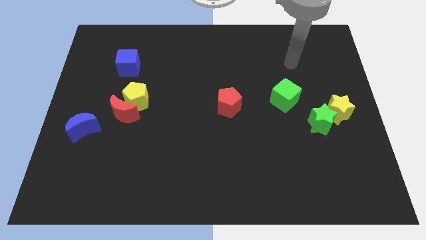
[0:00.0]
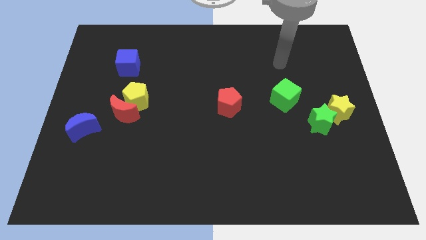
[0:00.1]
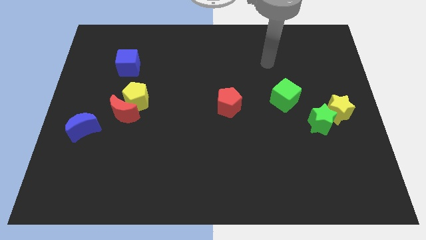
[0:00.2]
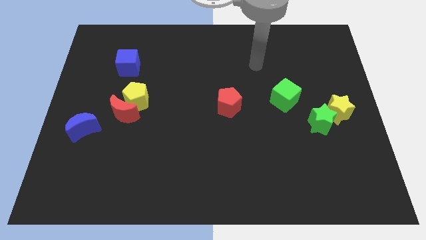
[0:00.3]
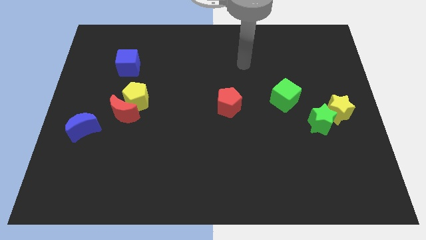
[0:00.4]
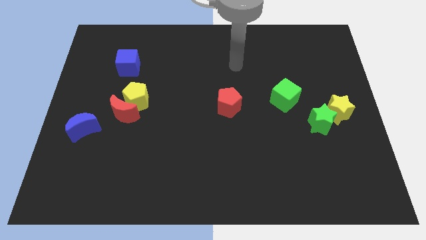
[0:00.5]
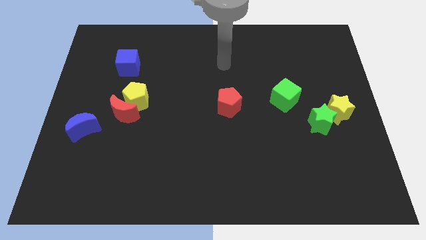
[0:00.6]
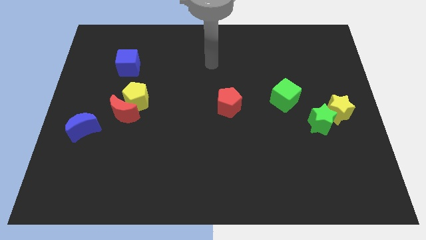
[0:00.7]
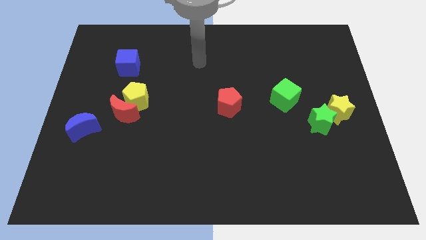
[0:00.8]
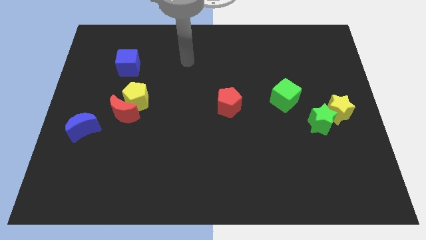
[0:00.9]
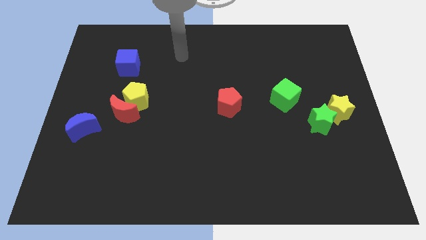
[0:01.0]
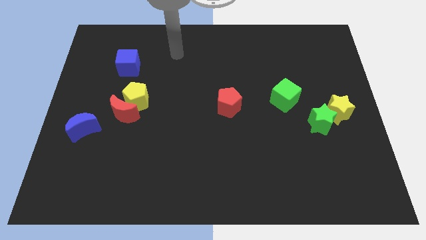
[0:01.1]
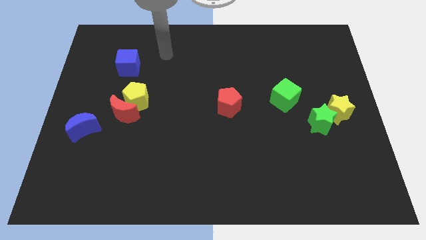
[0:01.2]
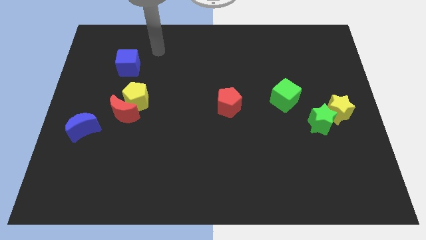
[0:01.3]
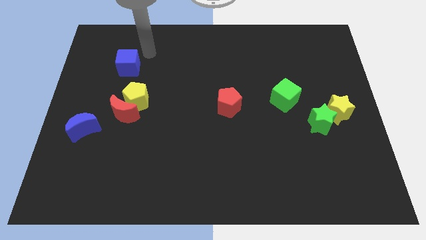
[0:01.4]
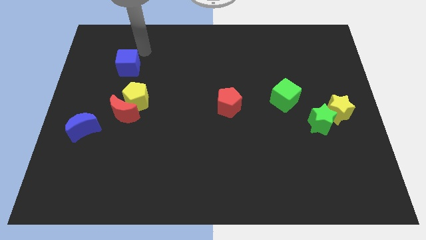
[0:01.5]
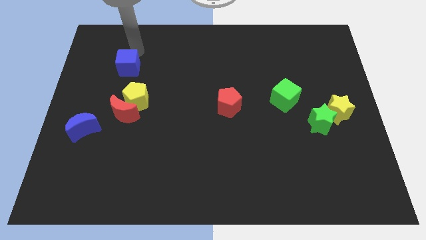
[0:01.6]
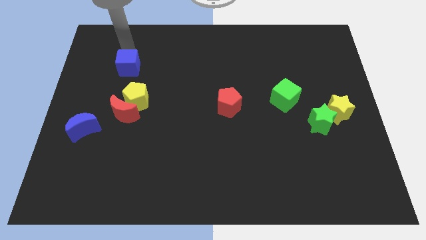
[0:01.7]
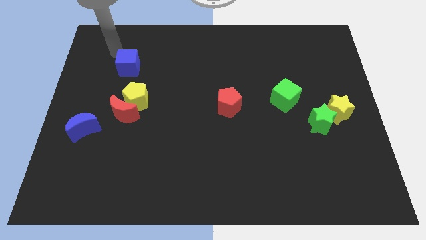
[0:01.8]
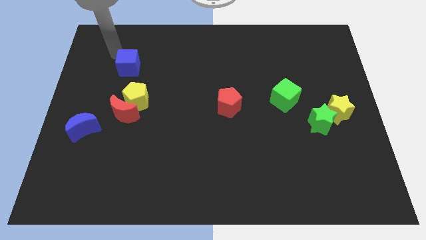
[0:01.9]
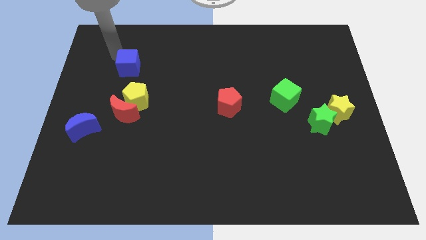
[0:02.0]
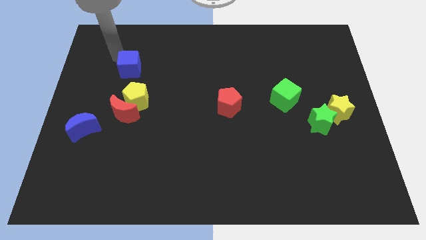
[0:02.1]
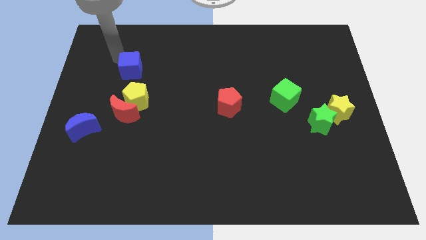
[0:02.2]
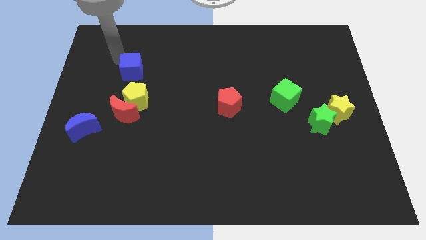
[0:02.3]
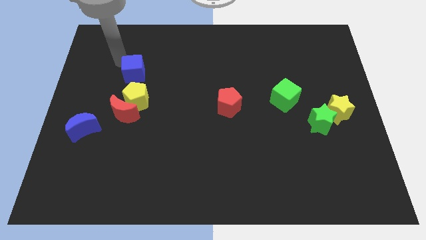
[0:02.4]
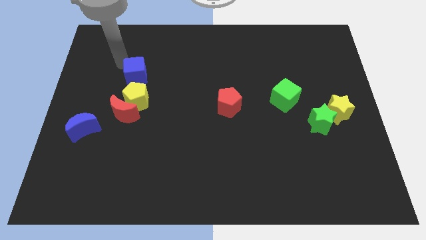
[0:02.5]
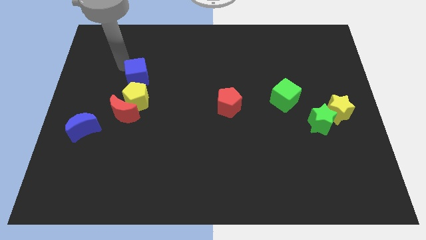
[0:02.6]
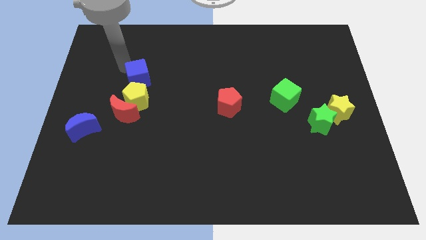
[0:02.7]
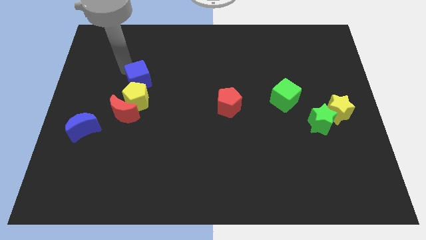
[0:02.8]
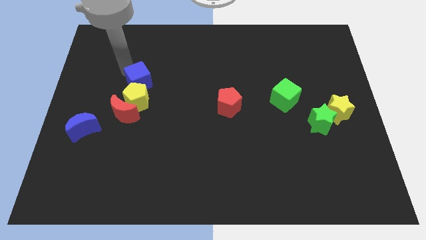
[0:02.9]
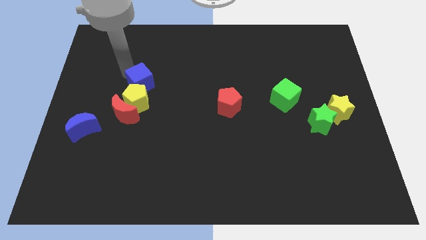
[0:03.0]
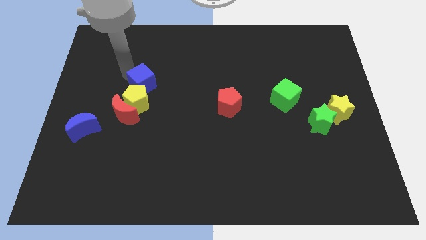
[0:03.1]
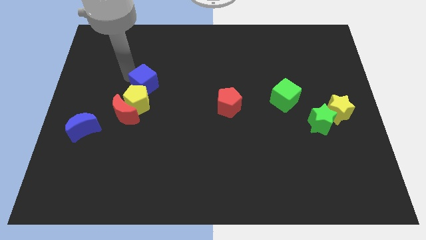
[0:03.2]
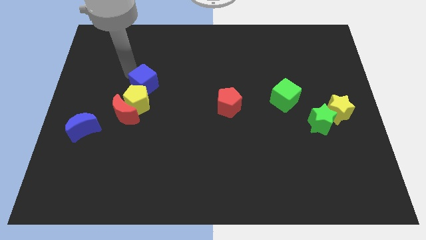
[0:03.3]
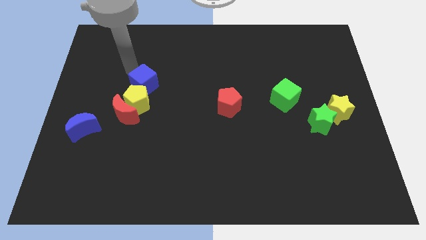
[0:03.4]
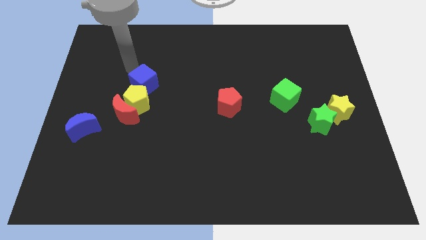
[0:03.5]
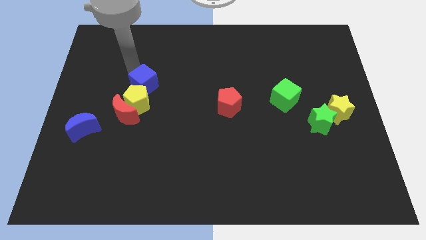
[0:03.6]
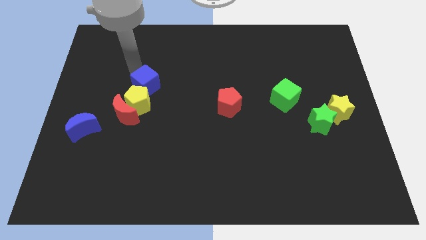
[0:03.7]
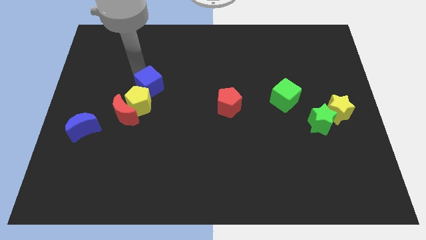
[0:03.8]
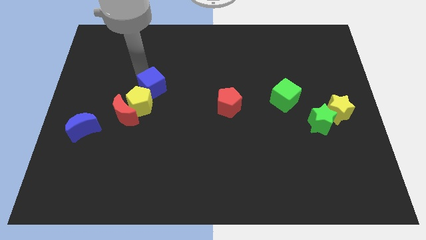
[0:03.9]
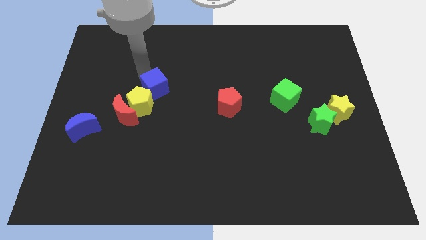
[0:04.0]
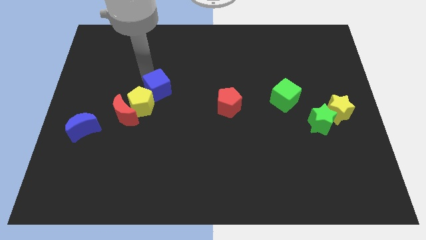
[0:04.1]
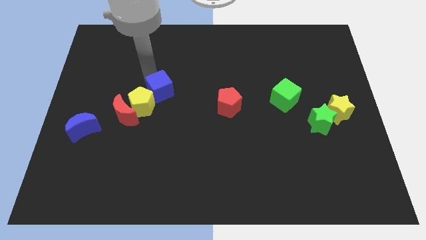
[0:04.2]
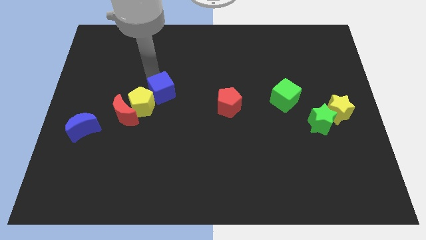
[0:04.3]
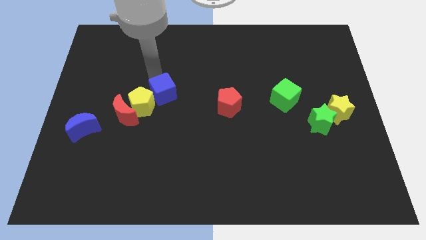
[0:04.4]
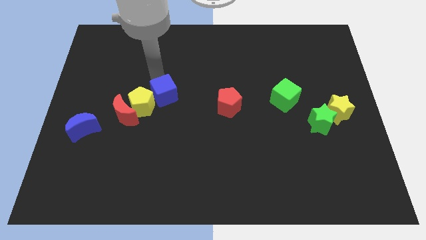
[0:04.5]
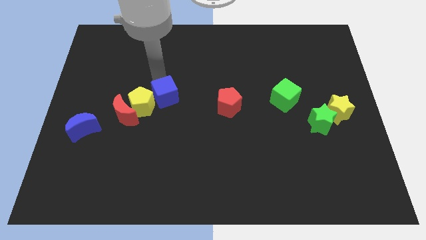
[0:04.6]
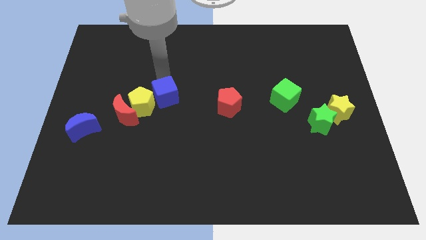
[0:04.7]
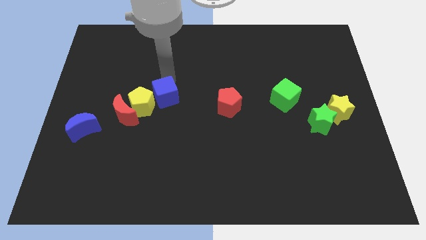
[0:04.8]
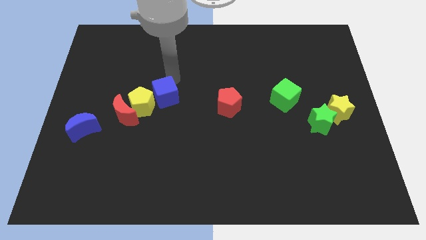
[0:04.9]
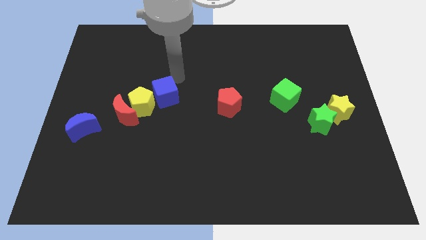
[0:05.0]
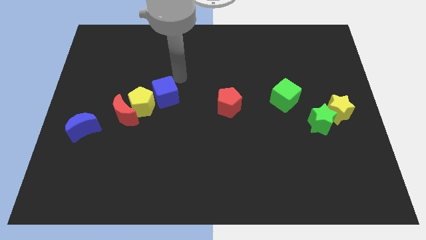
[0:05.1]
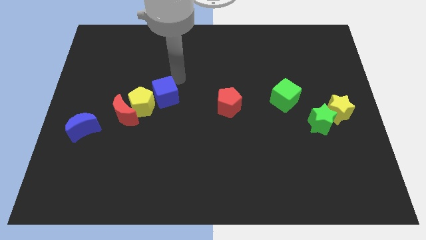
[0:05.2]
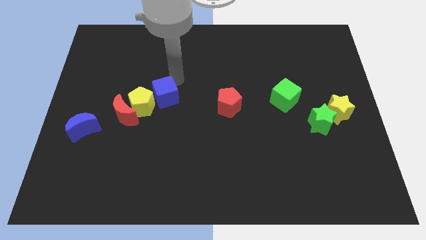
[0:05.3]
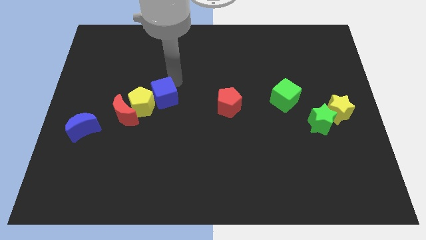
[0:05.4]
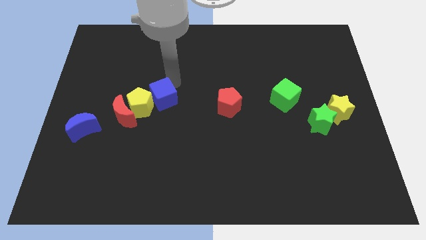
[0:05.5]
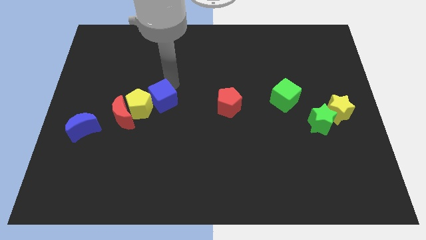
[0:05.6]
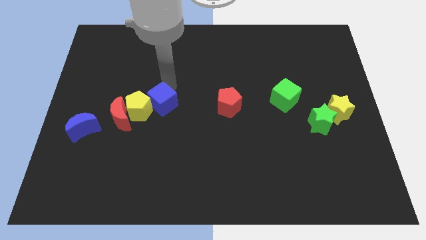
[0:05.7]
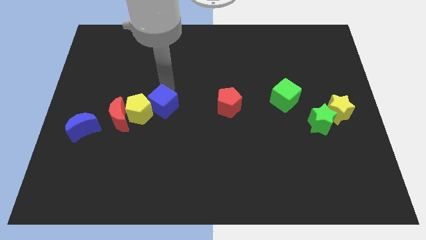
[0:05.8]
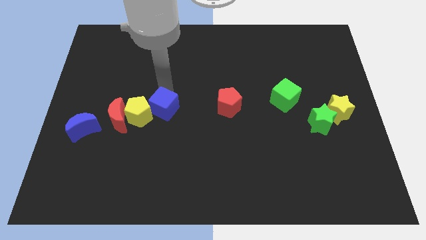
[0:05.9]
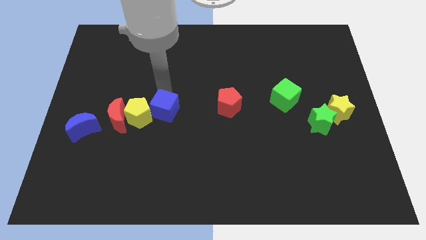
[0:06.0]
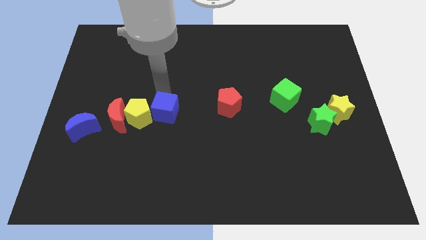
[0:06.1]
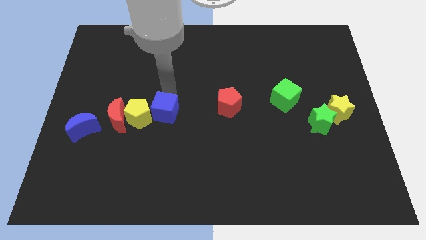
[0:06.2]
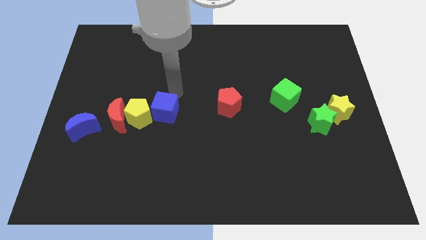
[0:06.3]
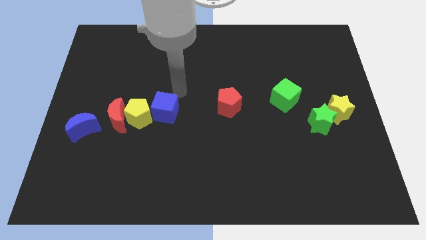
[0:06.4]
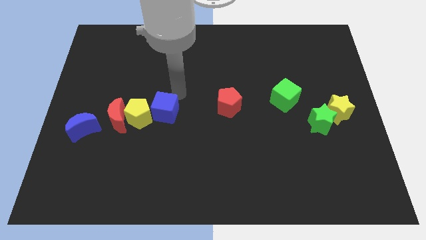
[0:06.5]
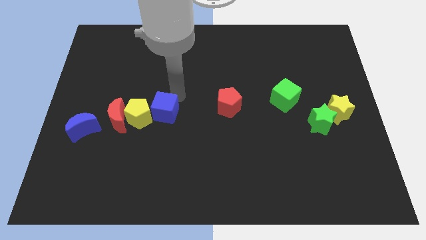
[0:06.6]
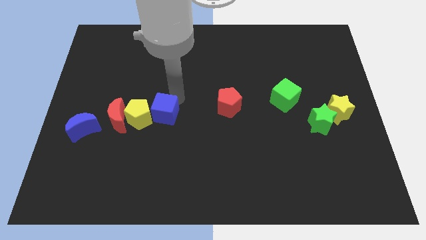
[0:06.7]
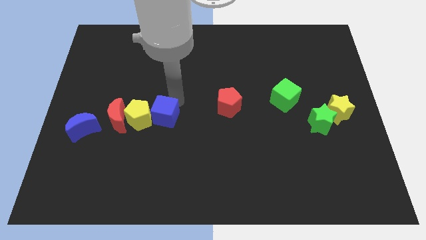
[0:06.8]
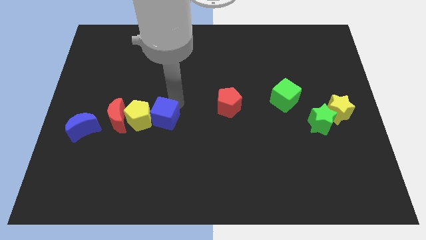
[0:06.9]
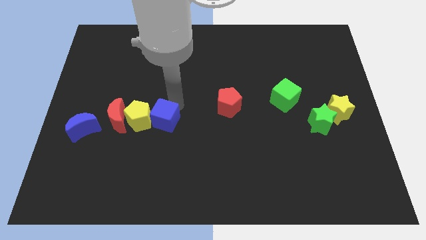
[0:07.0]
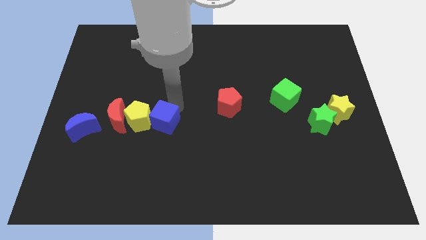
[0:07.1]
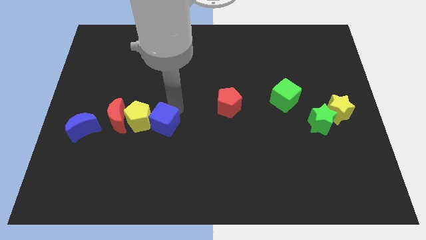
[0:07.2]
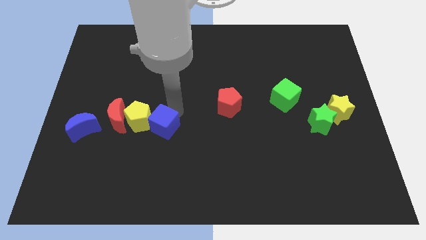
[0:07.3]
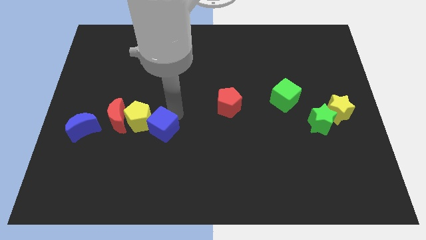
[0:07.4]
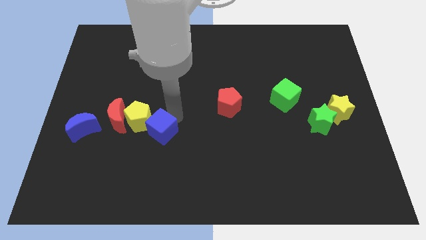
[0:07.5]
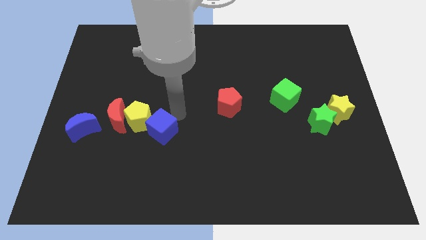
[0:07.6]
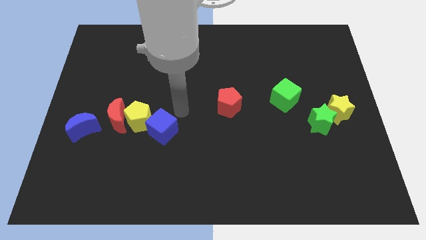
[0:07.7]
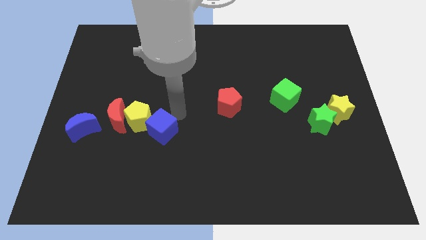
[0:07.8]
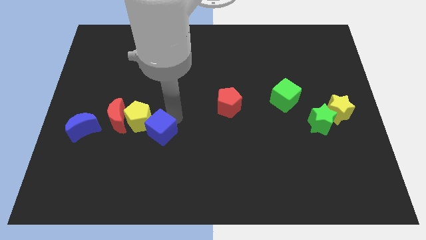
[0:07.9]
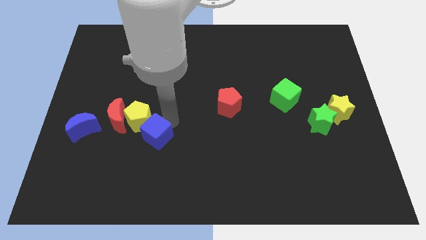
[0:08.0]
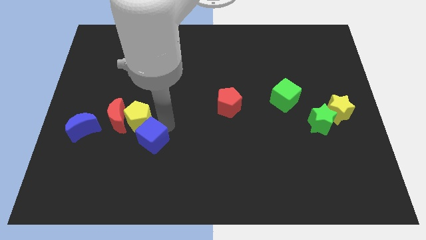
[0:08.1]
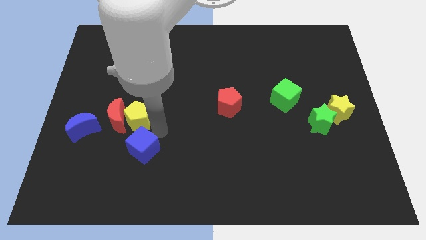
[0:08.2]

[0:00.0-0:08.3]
push the blue cube downwards
